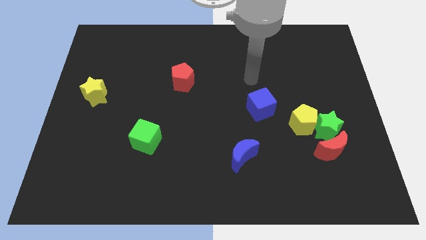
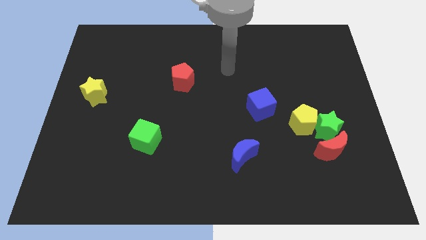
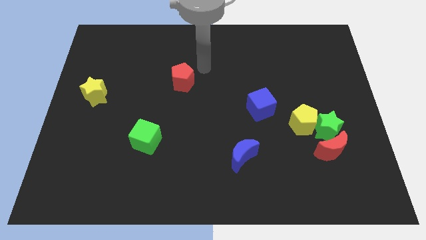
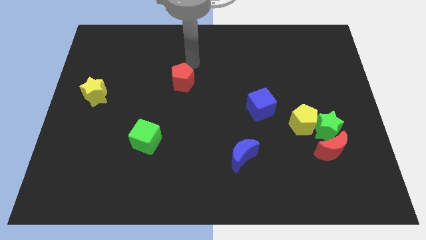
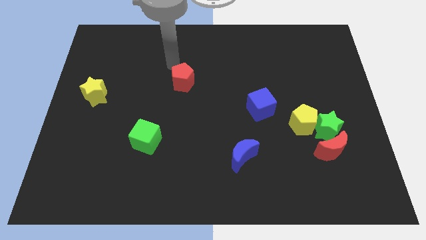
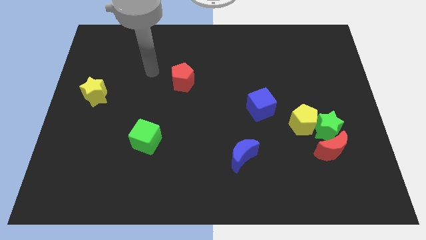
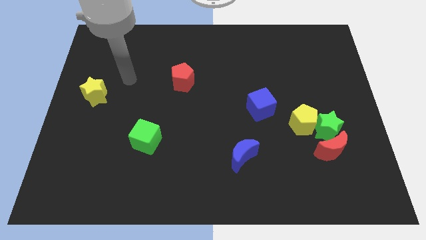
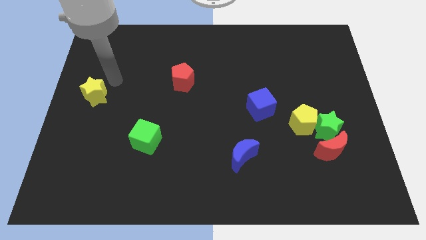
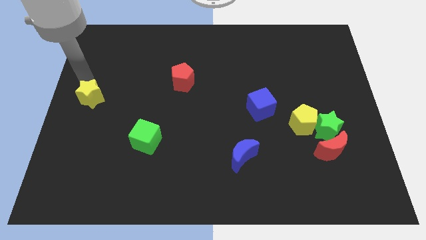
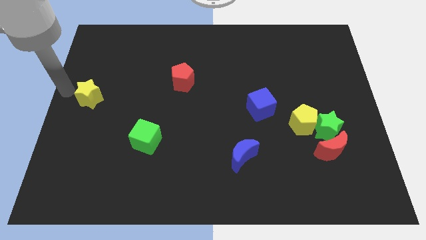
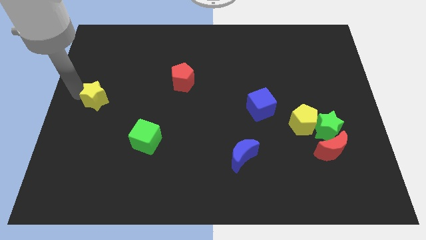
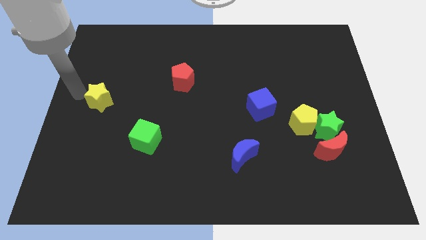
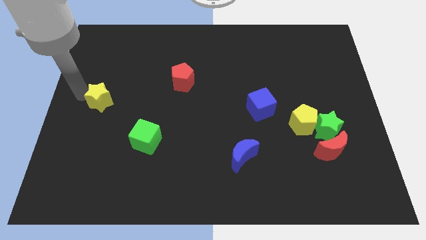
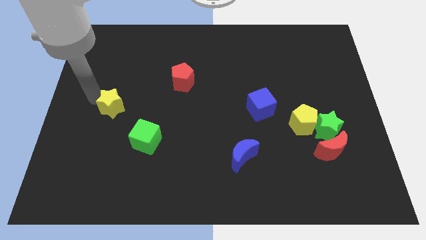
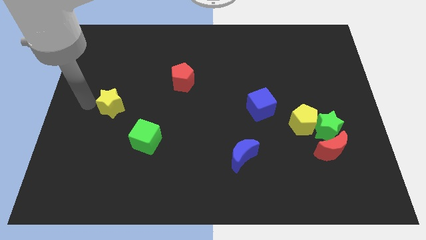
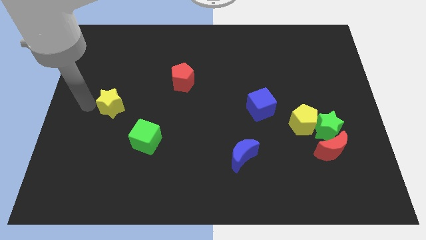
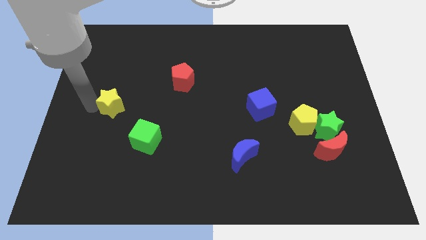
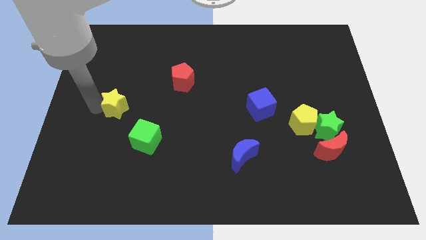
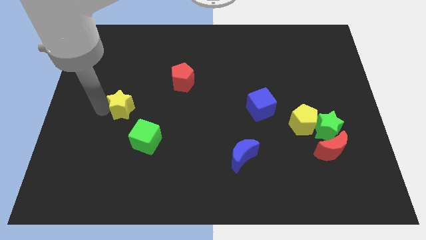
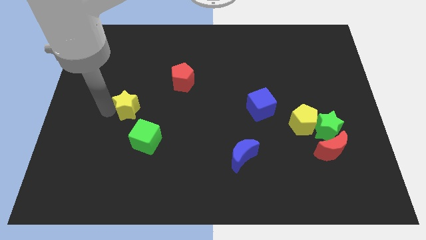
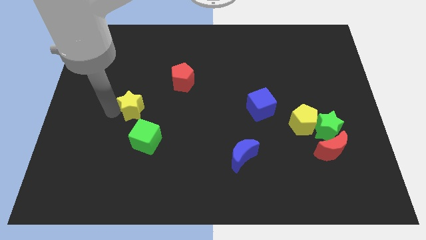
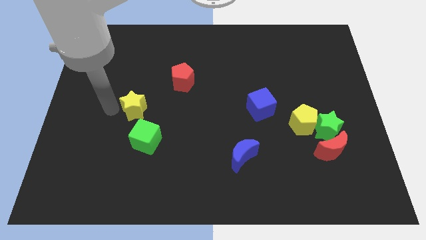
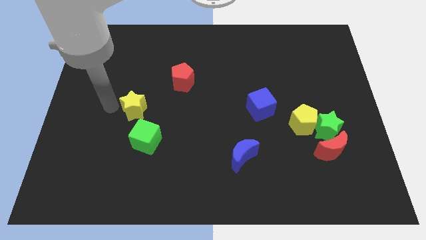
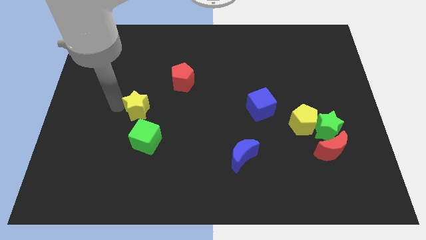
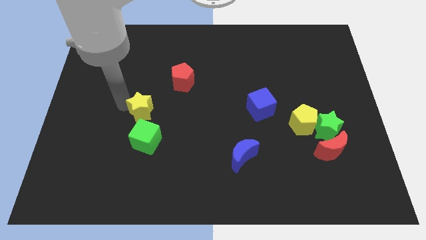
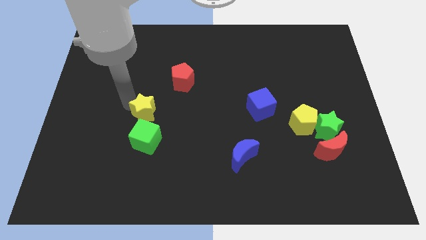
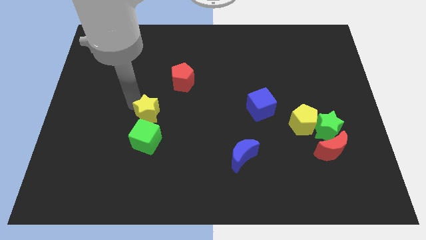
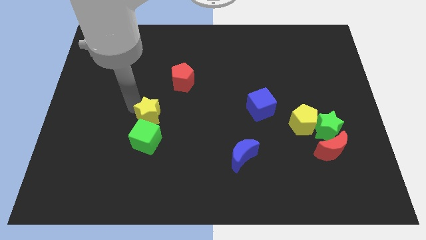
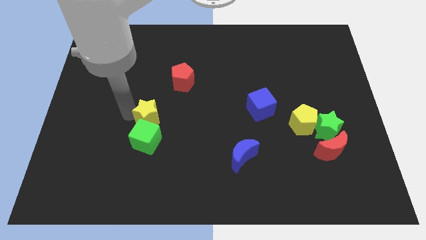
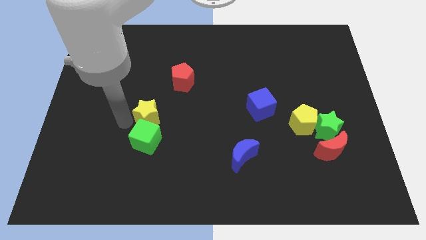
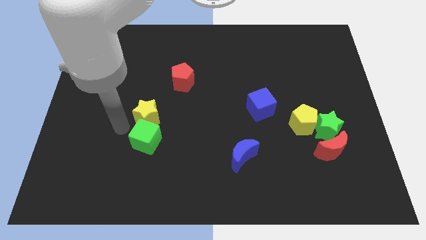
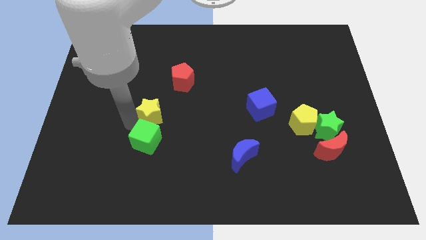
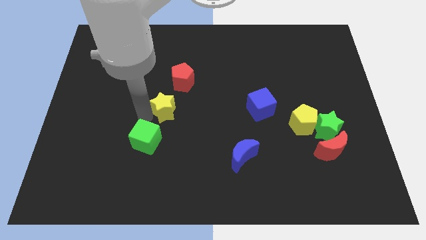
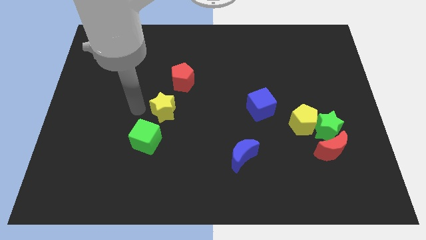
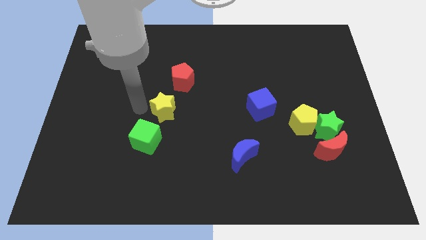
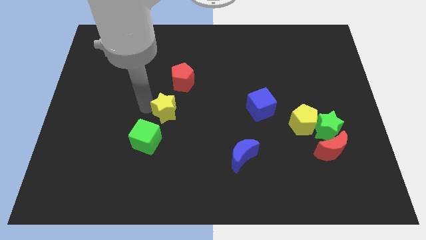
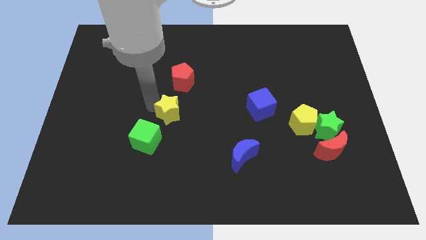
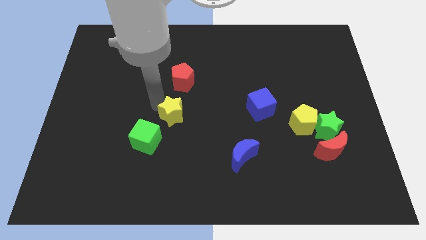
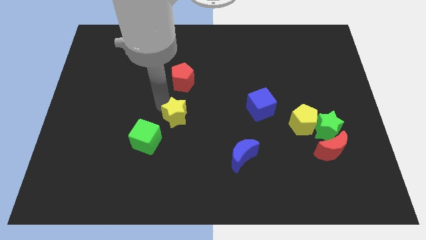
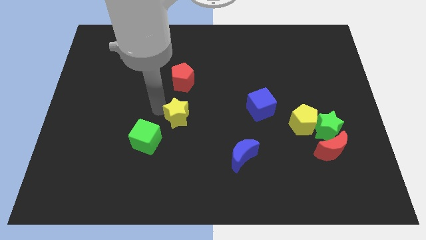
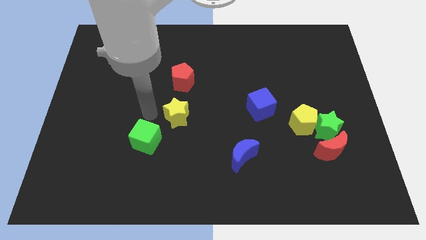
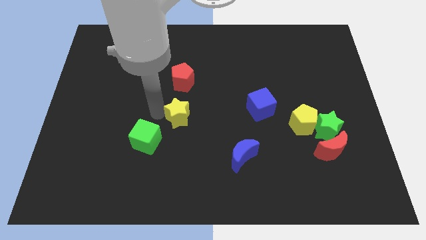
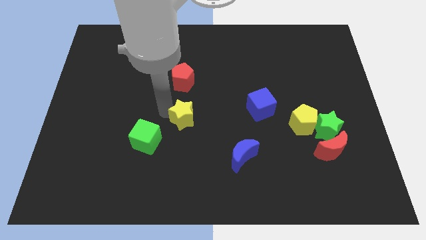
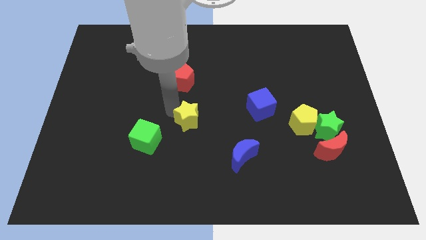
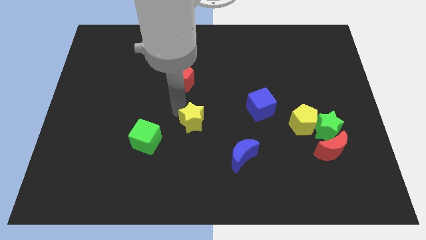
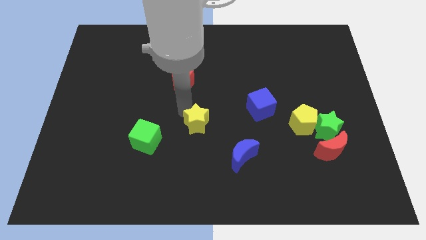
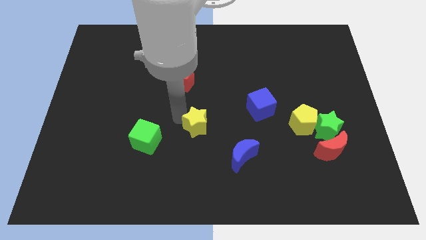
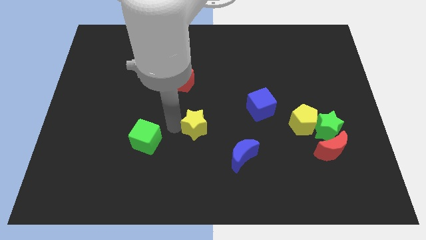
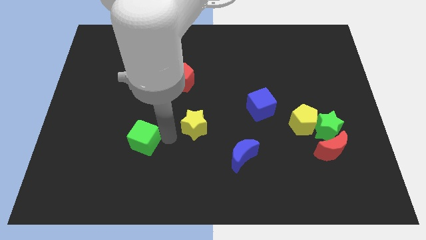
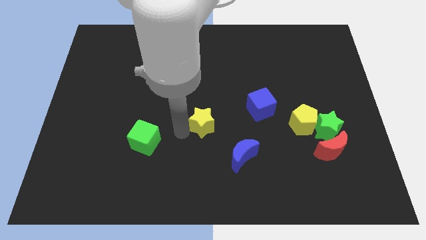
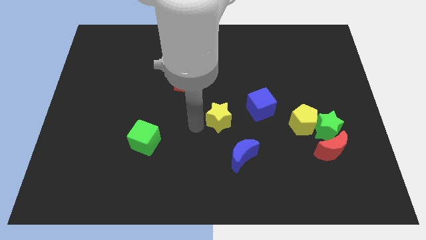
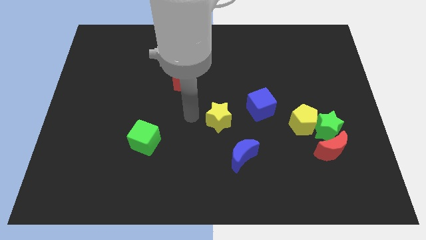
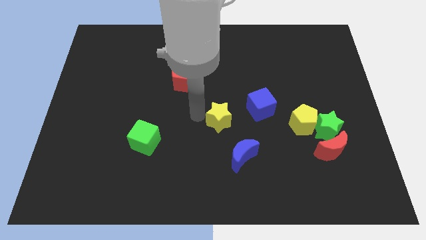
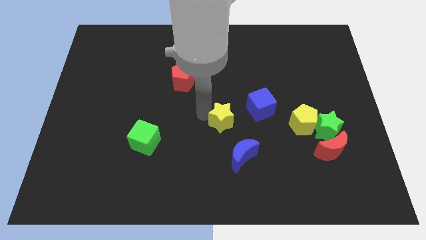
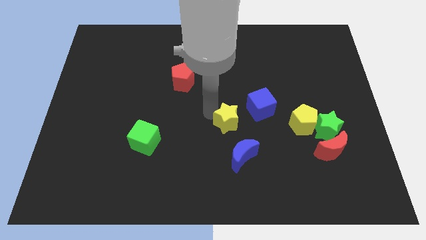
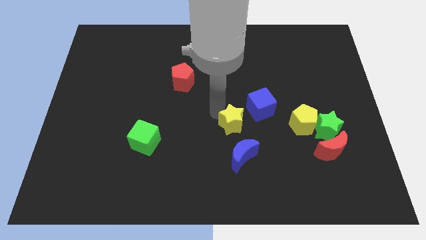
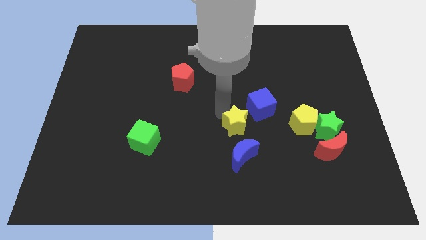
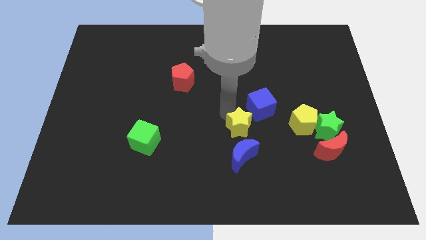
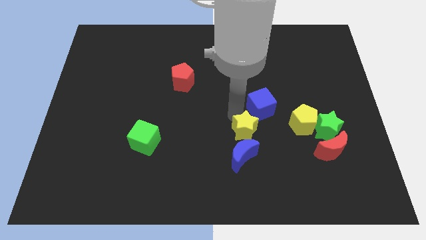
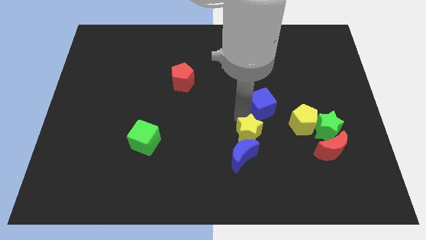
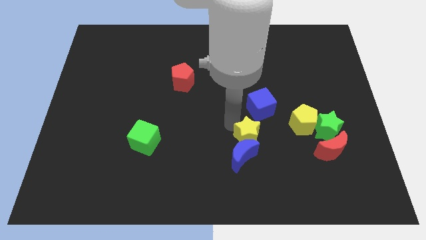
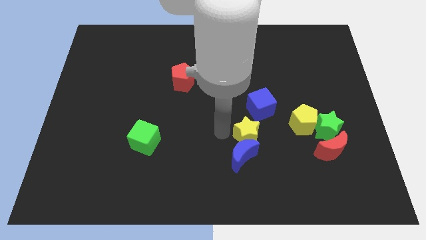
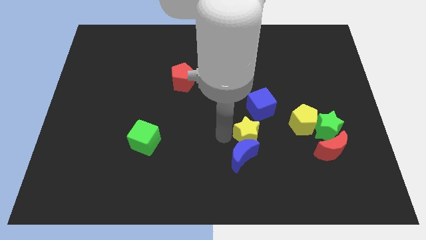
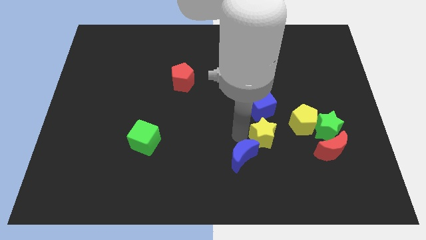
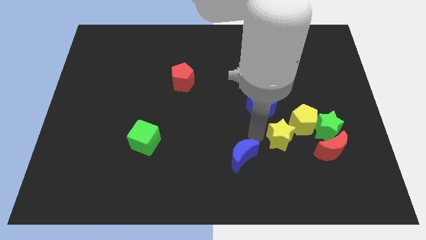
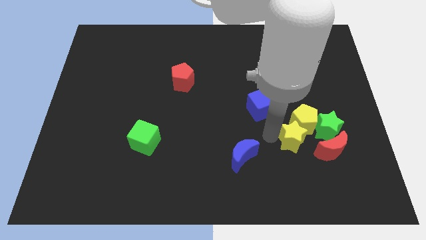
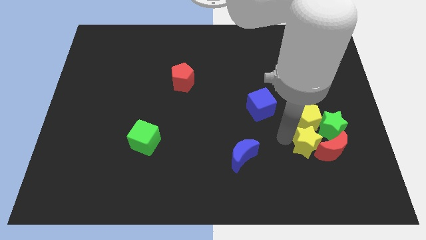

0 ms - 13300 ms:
push the yellow star next to the red moon
